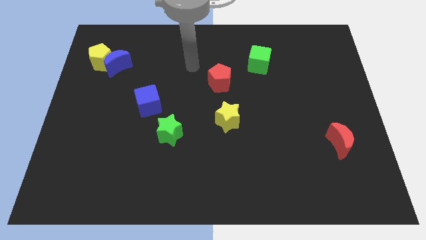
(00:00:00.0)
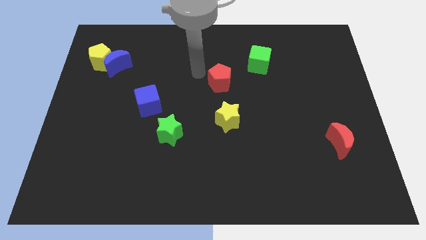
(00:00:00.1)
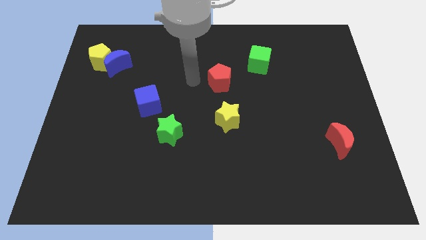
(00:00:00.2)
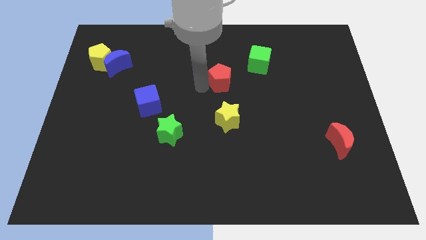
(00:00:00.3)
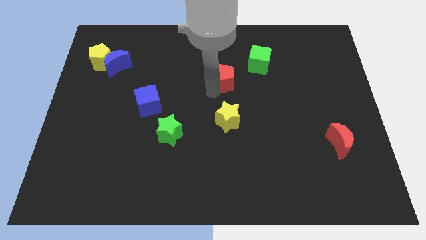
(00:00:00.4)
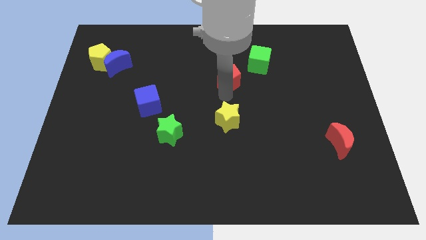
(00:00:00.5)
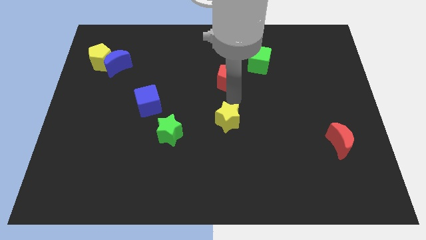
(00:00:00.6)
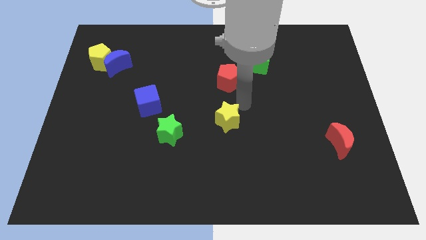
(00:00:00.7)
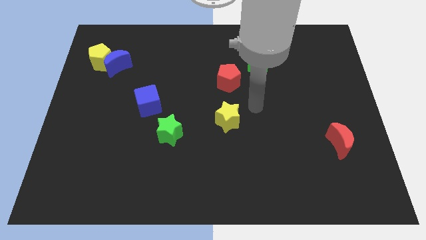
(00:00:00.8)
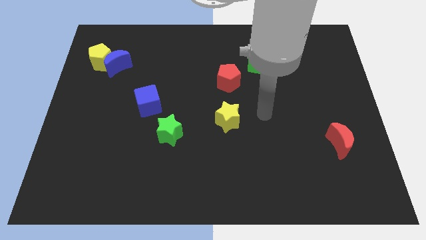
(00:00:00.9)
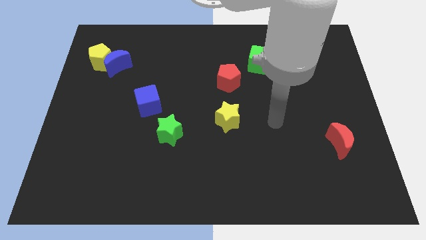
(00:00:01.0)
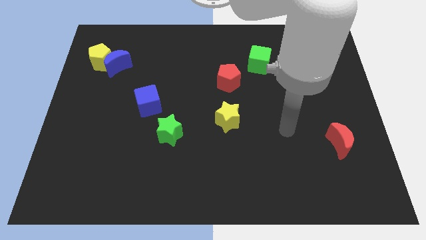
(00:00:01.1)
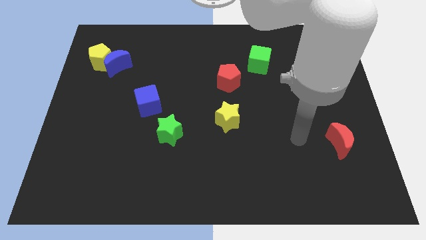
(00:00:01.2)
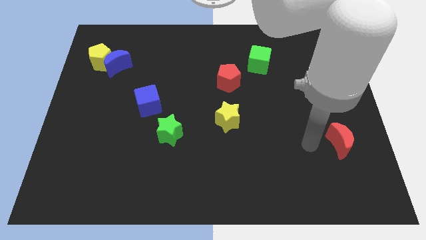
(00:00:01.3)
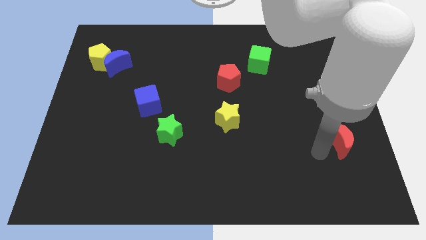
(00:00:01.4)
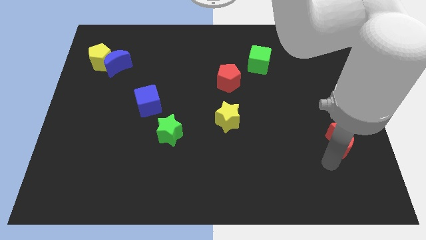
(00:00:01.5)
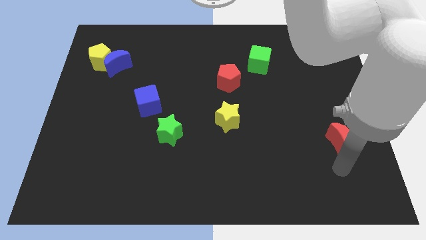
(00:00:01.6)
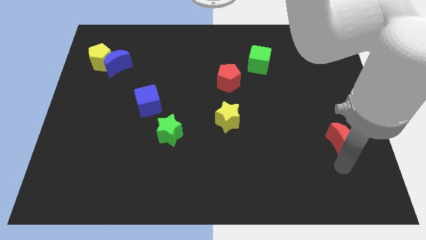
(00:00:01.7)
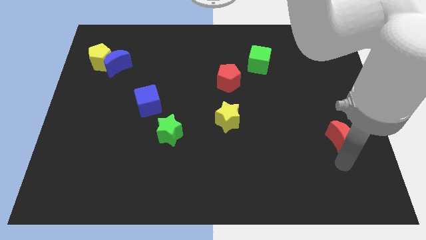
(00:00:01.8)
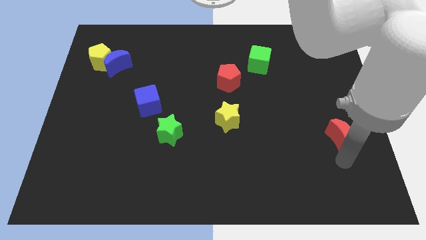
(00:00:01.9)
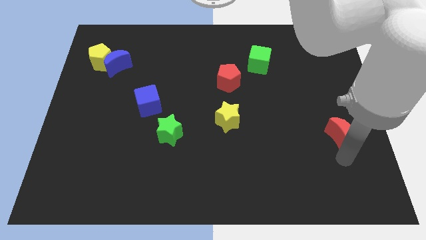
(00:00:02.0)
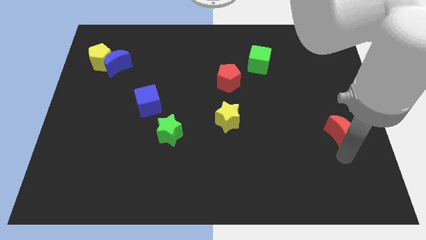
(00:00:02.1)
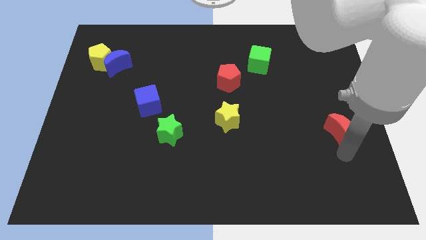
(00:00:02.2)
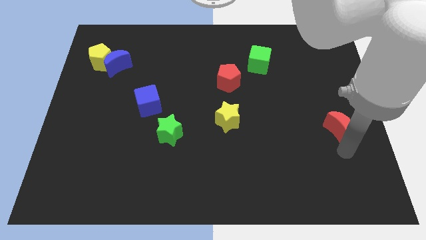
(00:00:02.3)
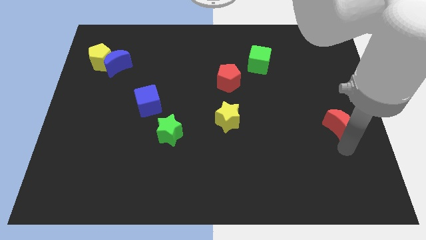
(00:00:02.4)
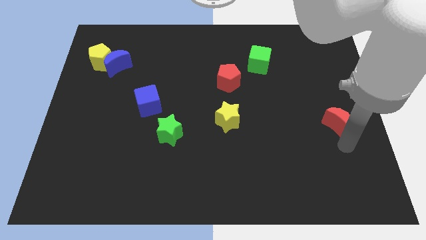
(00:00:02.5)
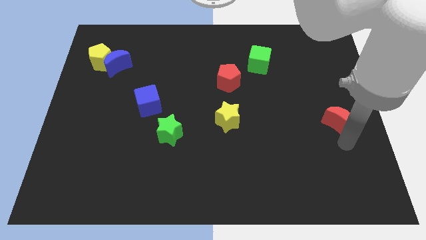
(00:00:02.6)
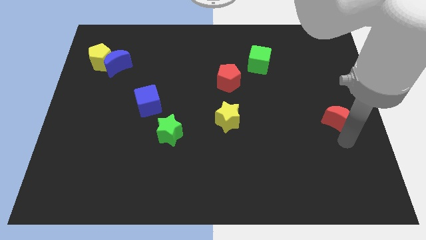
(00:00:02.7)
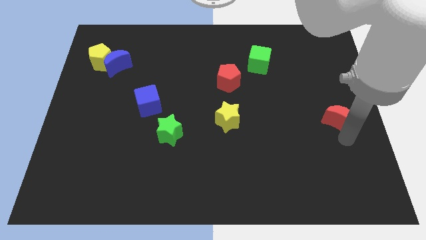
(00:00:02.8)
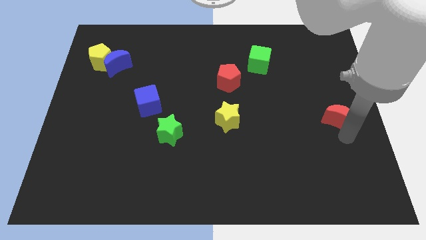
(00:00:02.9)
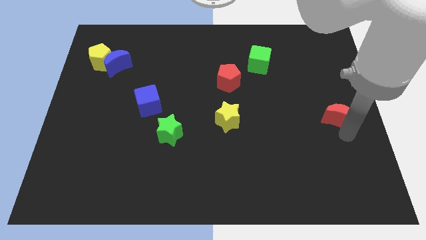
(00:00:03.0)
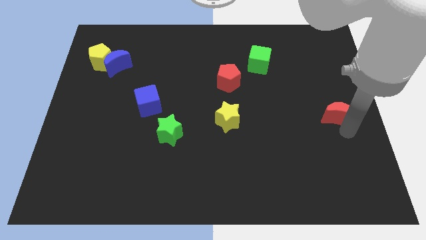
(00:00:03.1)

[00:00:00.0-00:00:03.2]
move the red moon a bit upwards

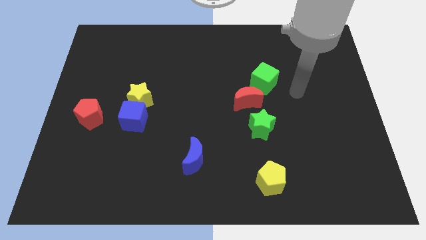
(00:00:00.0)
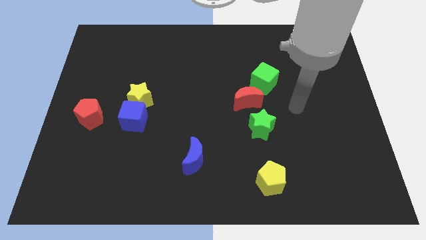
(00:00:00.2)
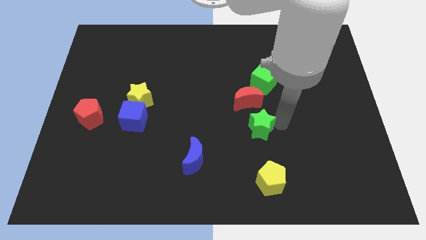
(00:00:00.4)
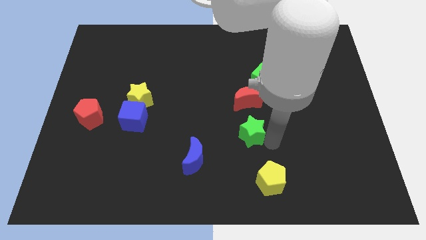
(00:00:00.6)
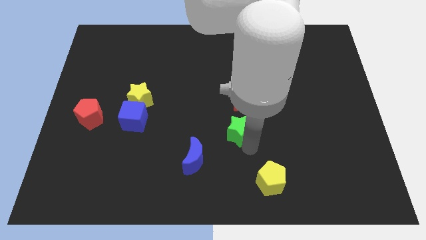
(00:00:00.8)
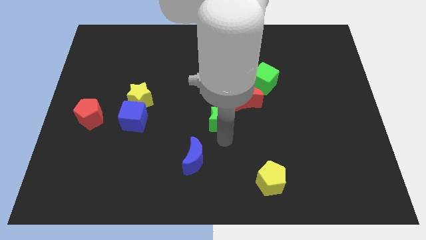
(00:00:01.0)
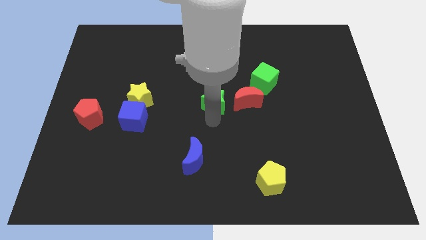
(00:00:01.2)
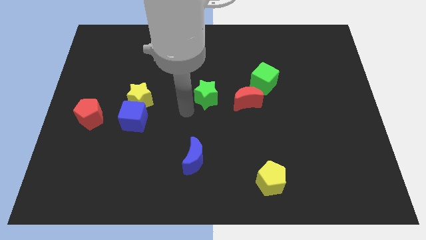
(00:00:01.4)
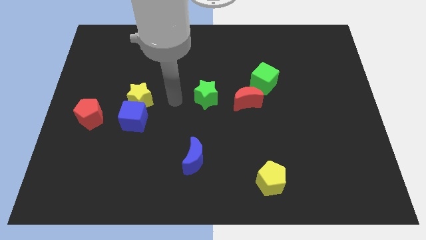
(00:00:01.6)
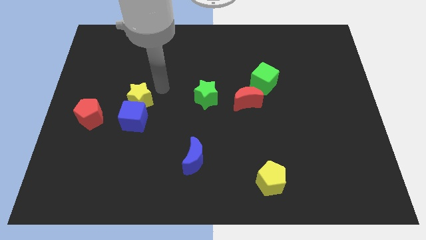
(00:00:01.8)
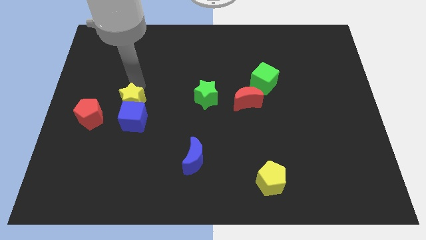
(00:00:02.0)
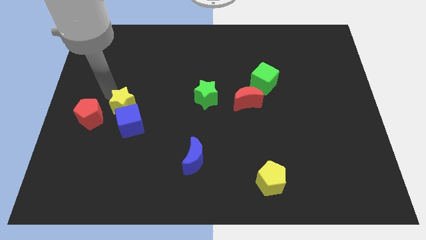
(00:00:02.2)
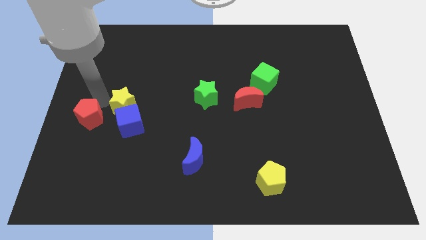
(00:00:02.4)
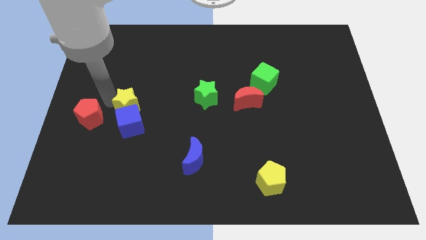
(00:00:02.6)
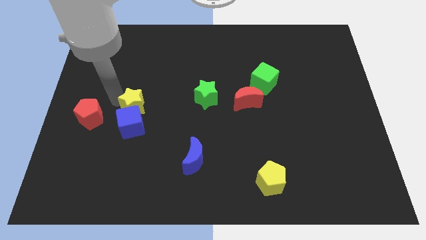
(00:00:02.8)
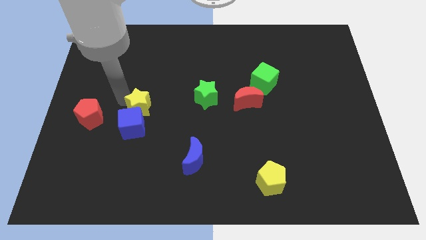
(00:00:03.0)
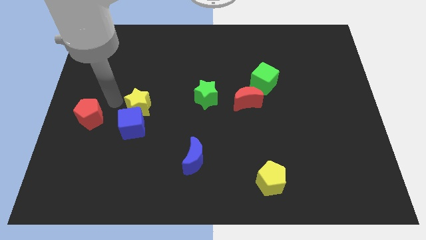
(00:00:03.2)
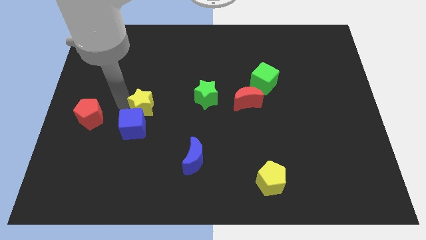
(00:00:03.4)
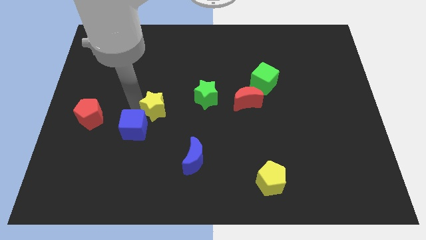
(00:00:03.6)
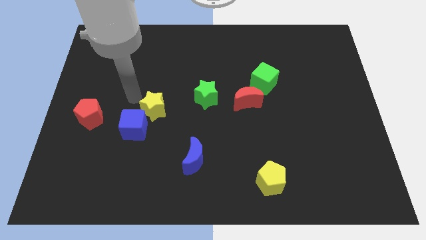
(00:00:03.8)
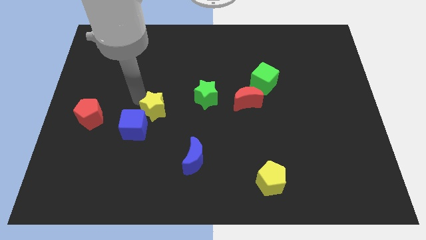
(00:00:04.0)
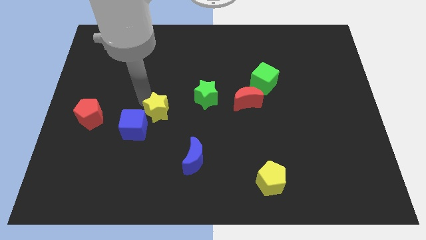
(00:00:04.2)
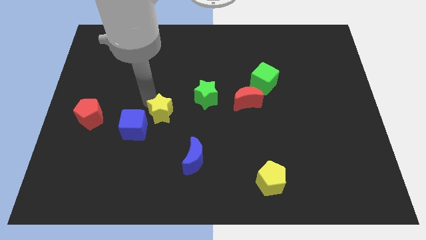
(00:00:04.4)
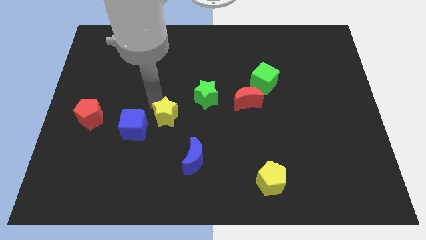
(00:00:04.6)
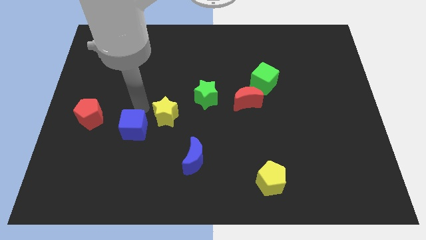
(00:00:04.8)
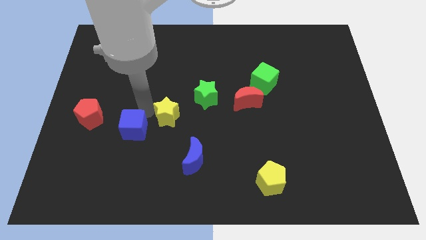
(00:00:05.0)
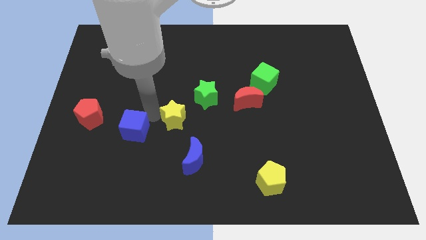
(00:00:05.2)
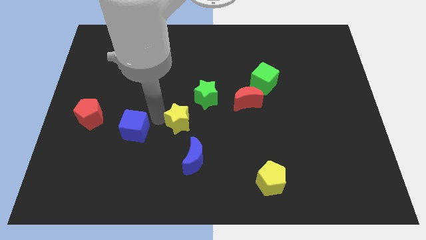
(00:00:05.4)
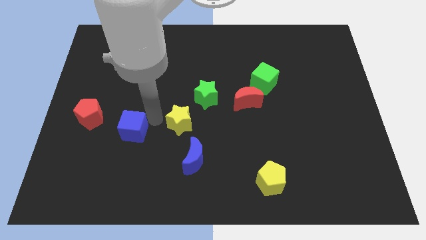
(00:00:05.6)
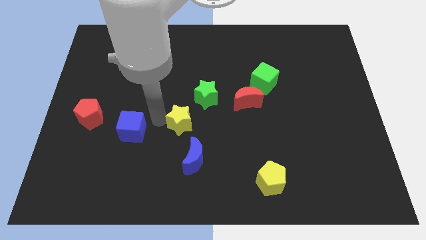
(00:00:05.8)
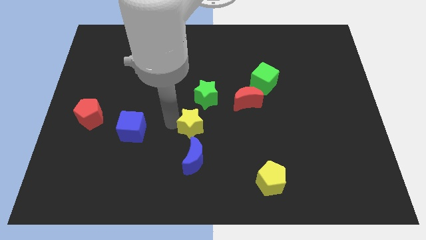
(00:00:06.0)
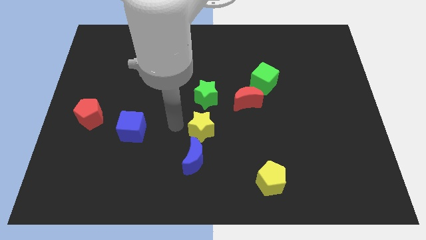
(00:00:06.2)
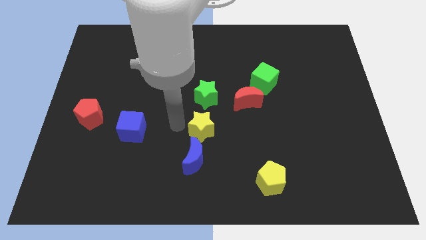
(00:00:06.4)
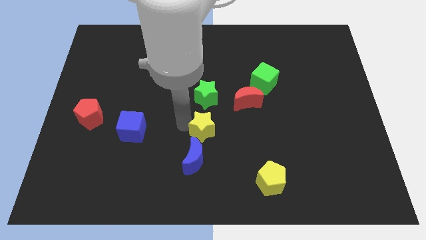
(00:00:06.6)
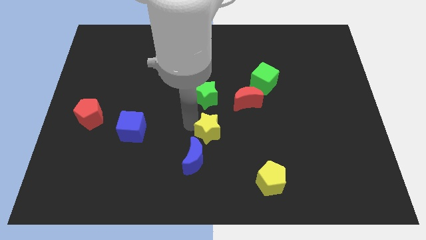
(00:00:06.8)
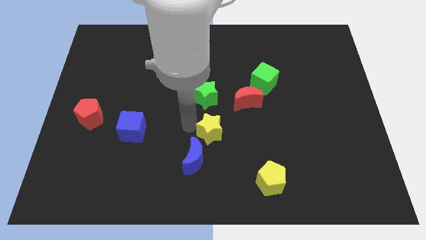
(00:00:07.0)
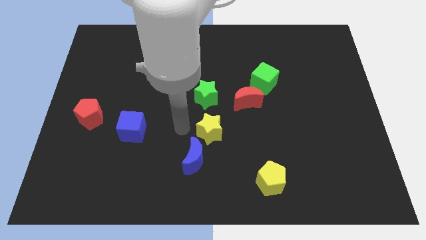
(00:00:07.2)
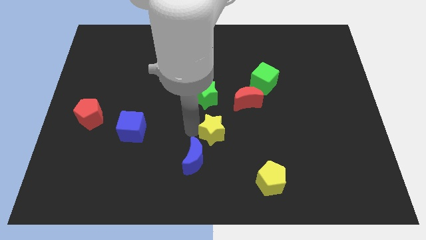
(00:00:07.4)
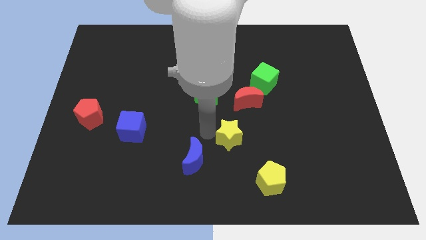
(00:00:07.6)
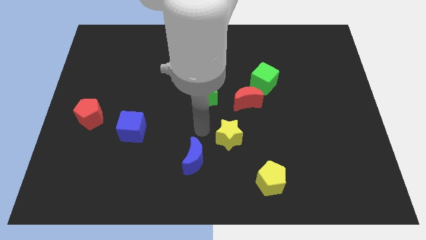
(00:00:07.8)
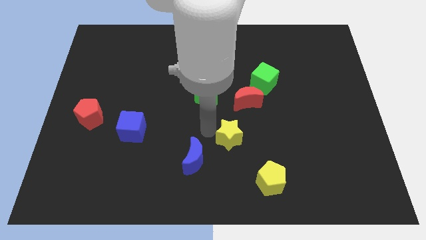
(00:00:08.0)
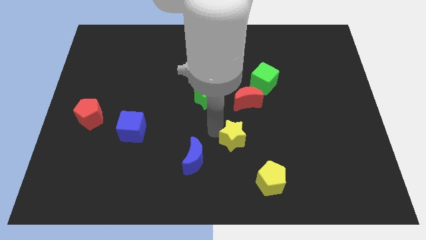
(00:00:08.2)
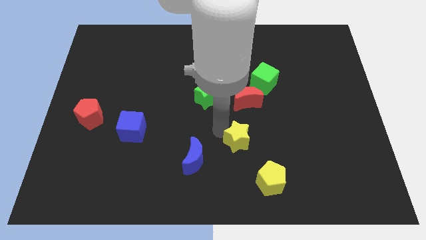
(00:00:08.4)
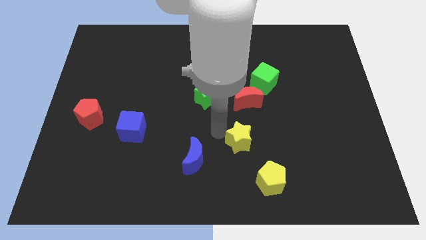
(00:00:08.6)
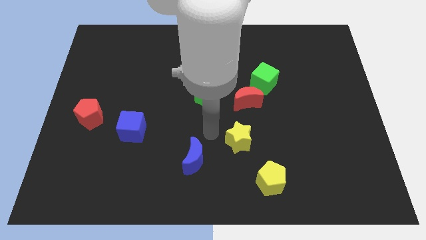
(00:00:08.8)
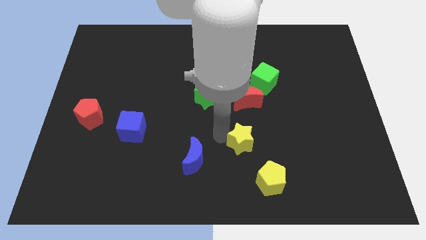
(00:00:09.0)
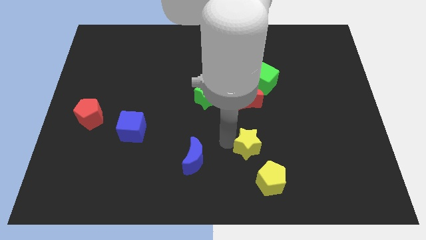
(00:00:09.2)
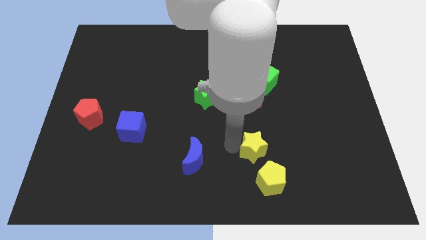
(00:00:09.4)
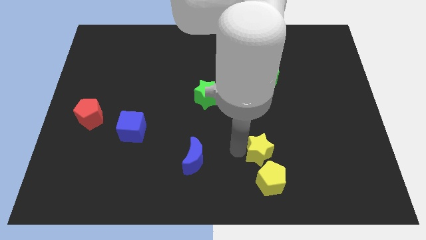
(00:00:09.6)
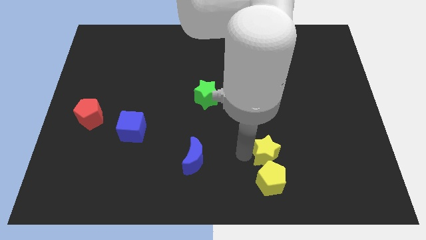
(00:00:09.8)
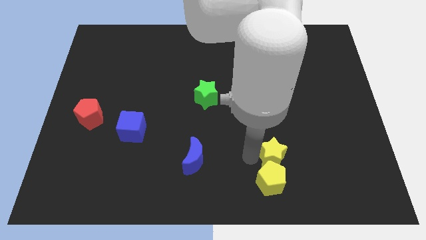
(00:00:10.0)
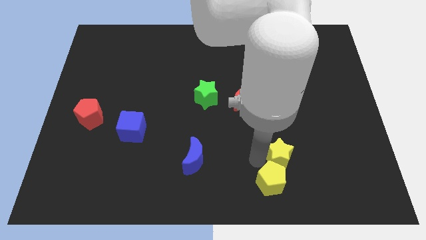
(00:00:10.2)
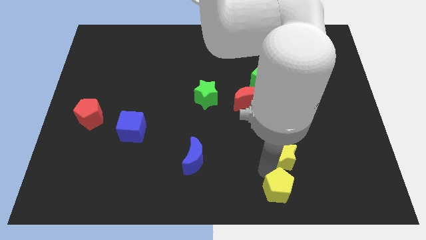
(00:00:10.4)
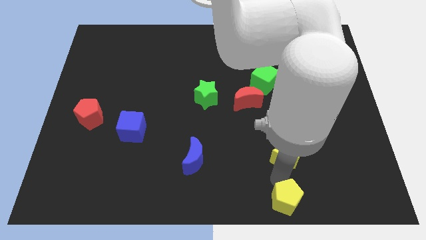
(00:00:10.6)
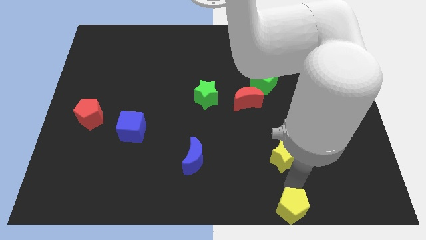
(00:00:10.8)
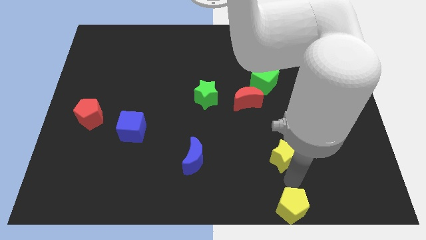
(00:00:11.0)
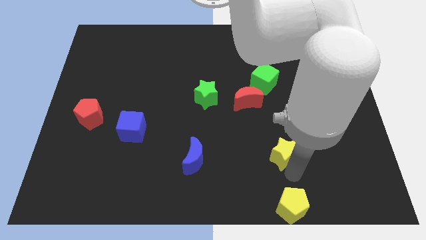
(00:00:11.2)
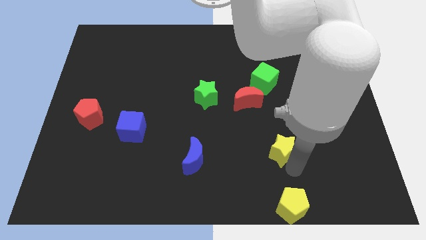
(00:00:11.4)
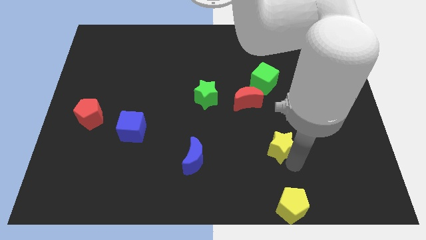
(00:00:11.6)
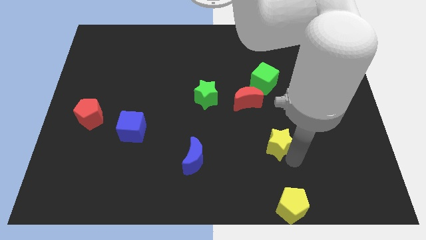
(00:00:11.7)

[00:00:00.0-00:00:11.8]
push the yellow star right
